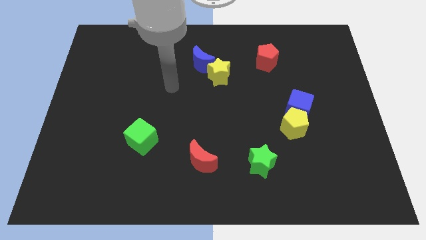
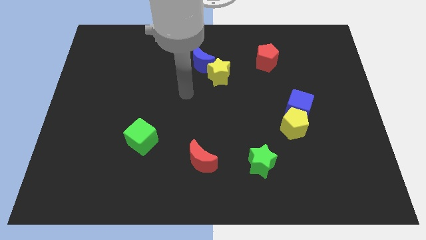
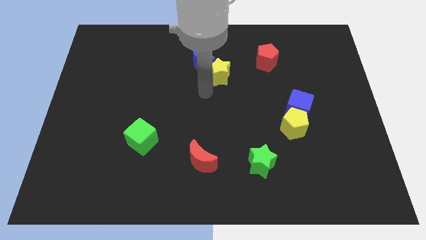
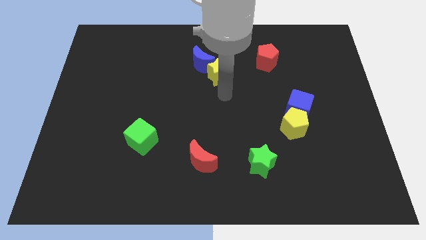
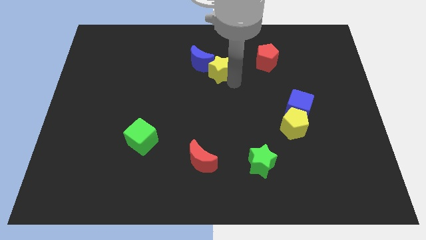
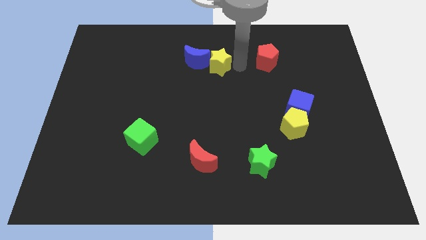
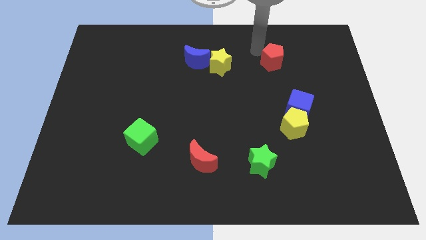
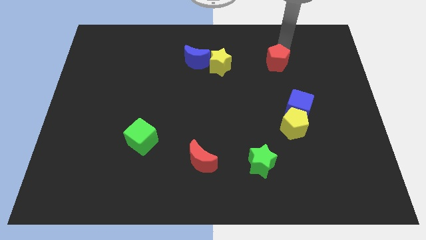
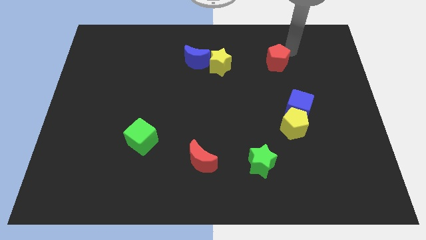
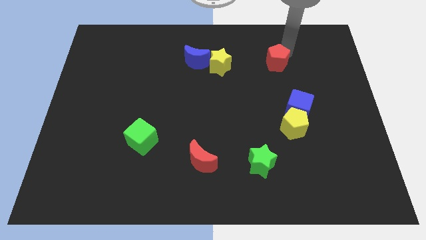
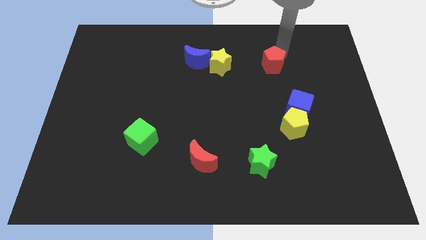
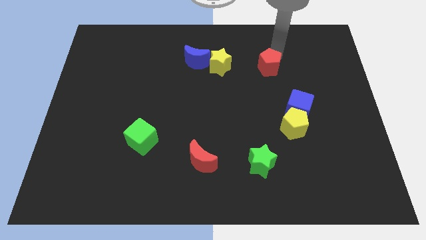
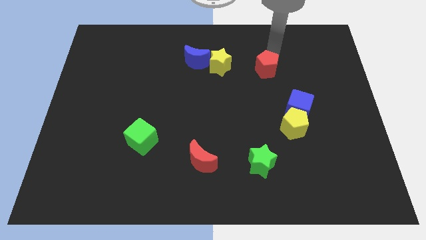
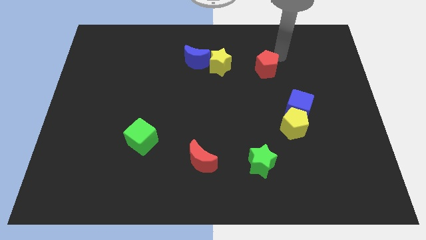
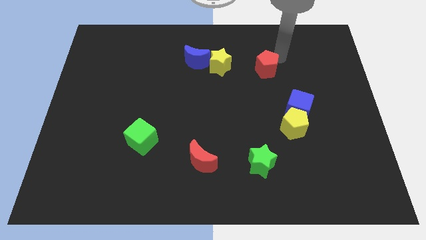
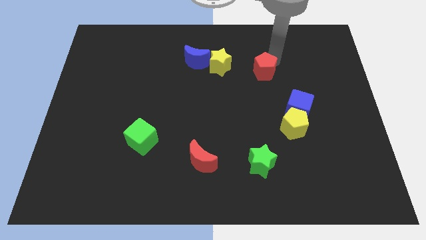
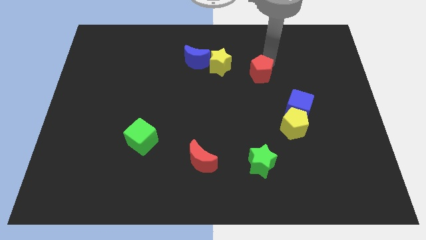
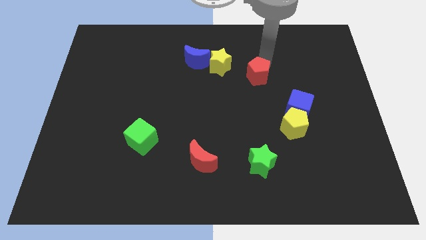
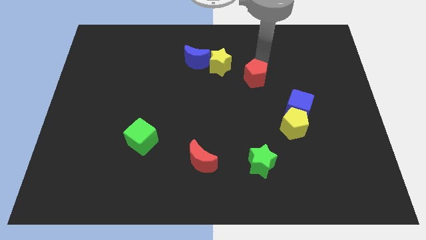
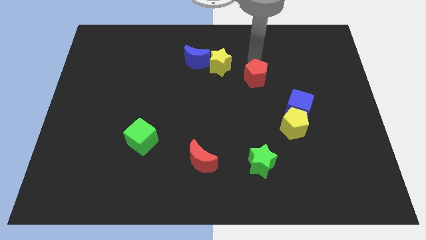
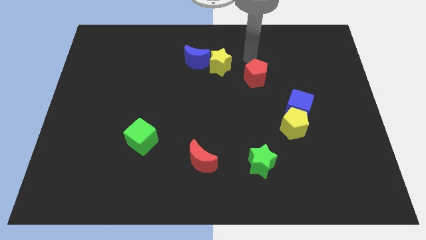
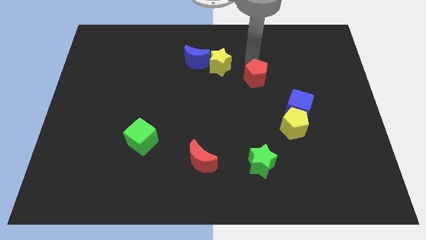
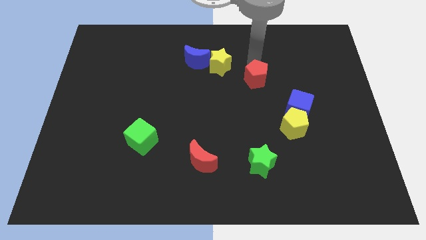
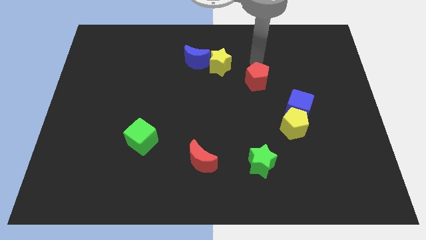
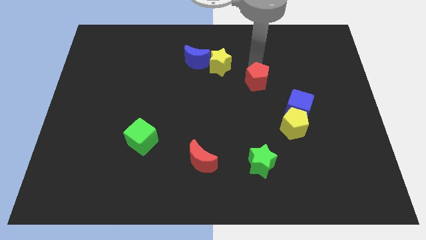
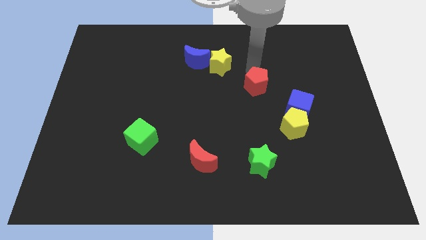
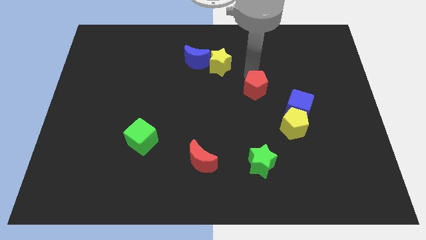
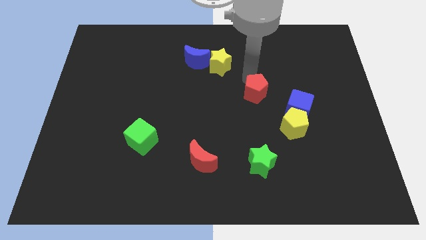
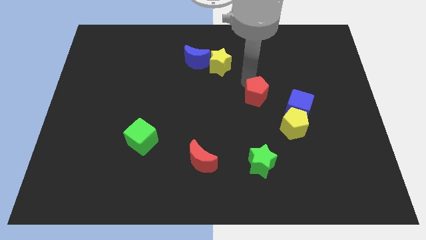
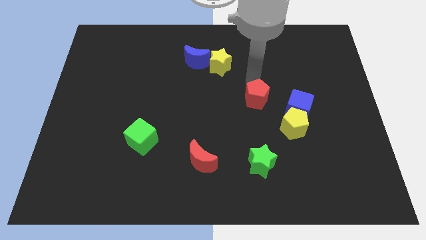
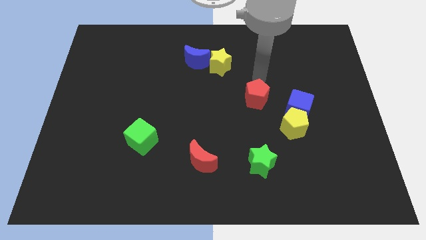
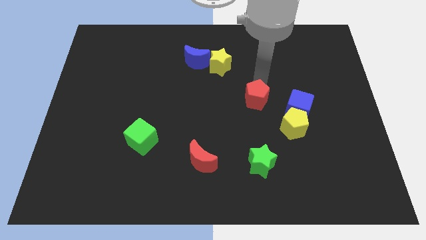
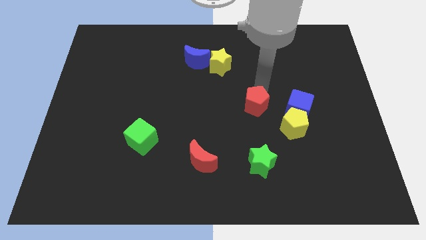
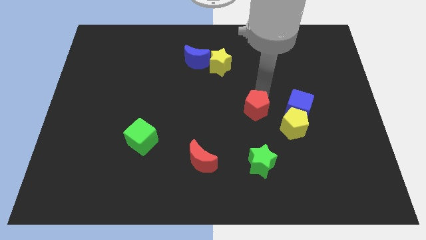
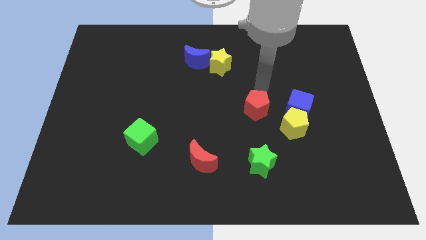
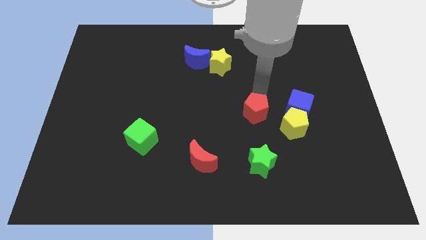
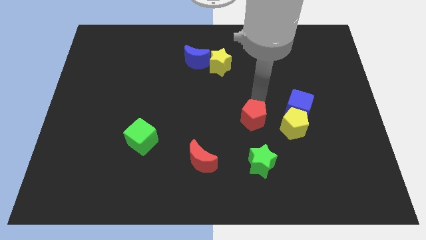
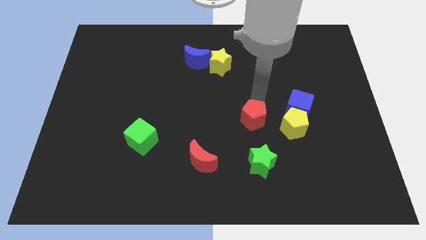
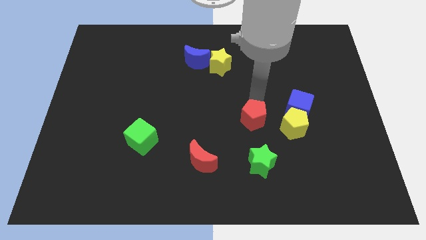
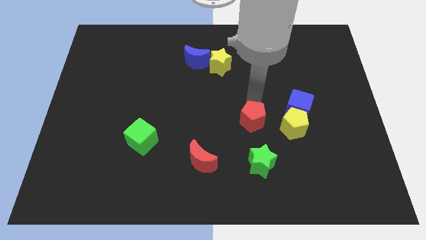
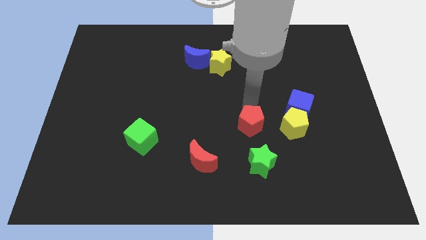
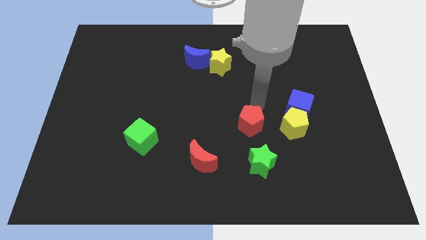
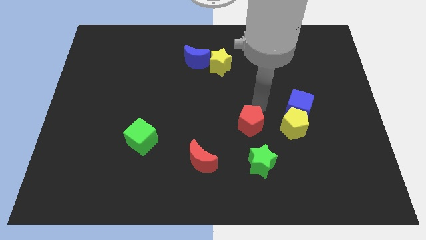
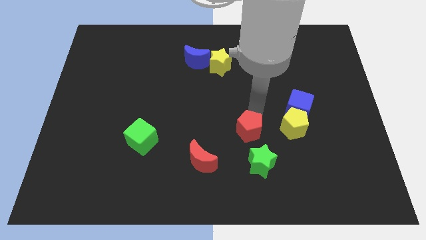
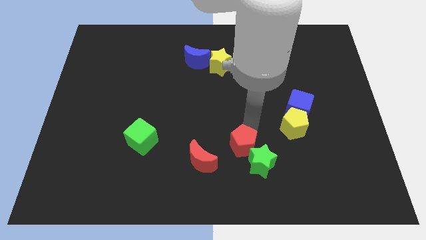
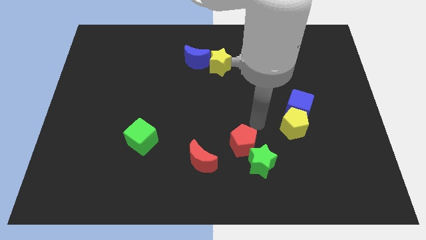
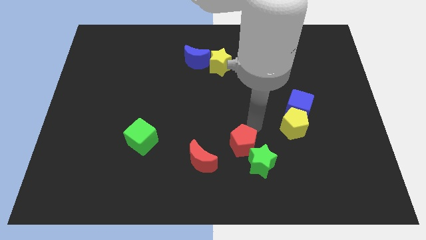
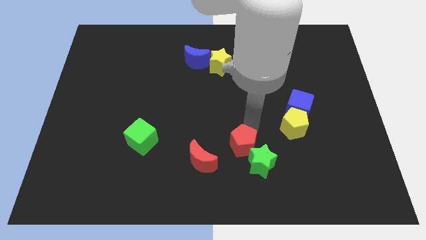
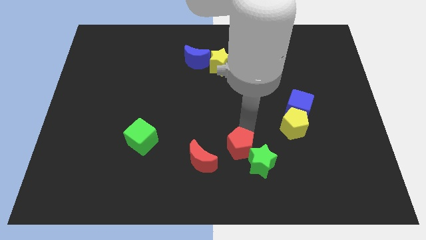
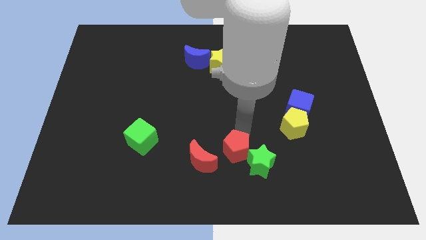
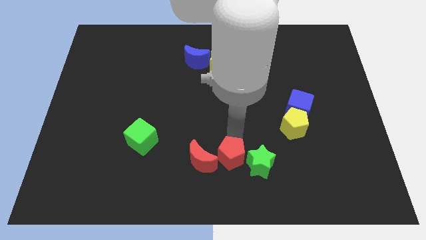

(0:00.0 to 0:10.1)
move the red pentagon to the bottom

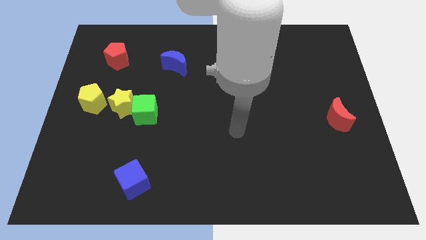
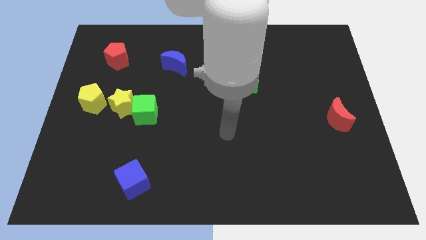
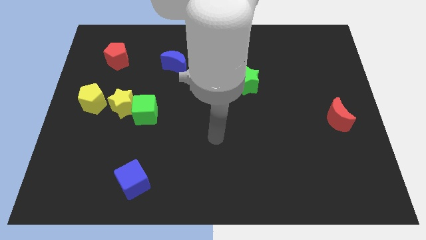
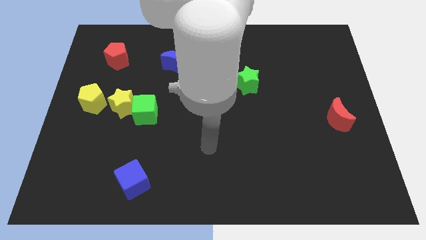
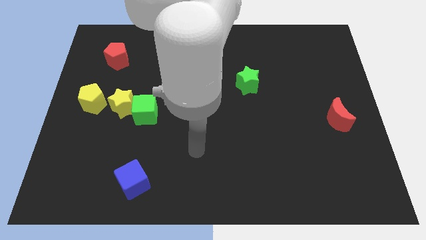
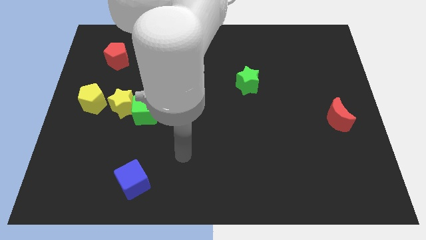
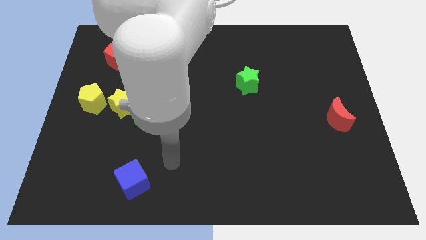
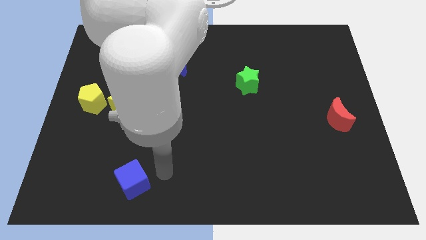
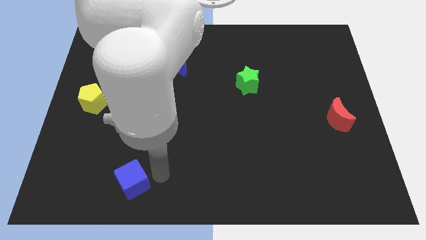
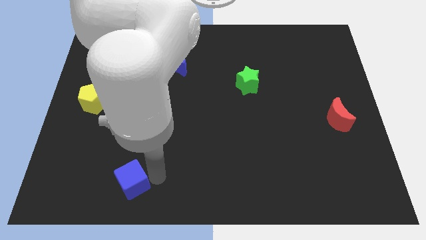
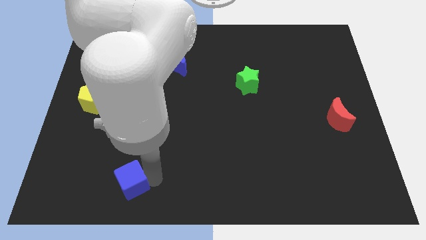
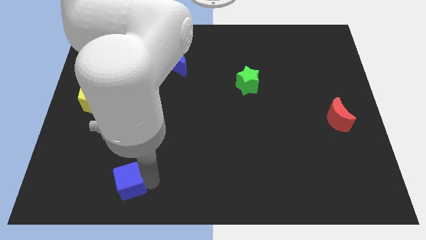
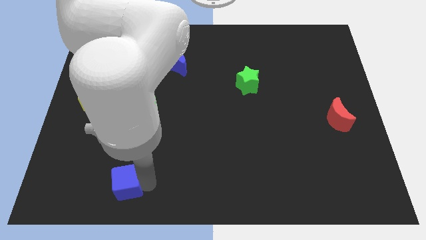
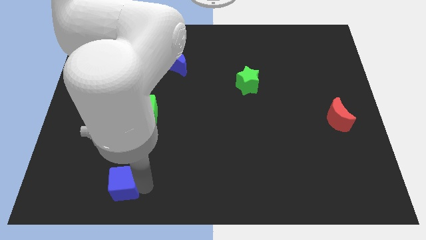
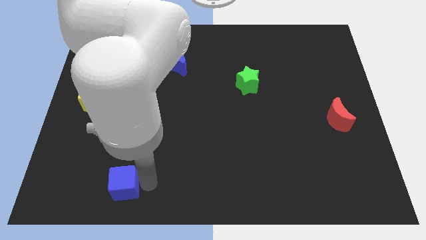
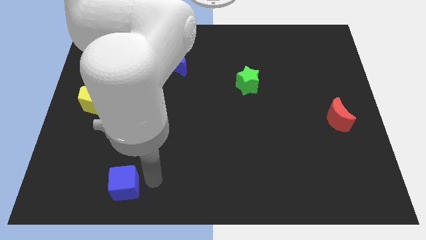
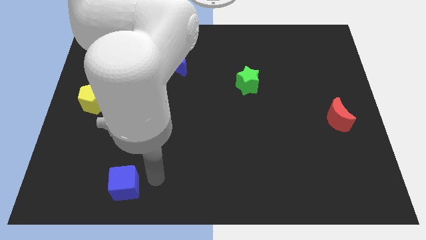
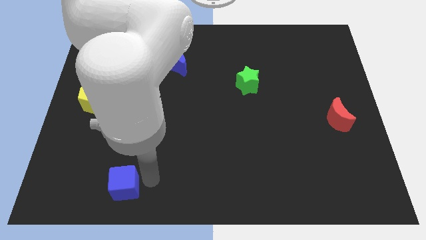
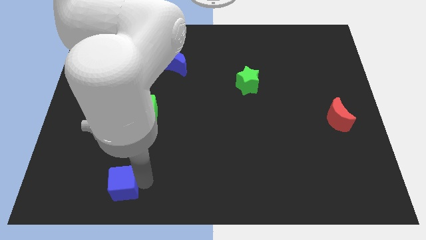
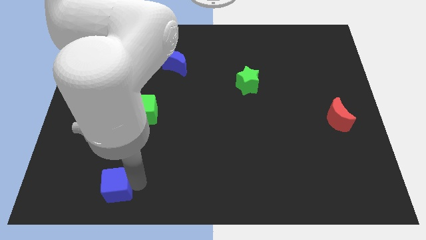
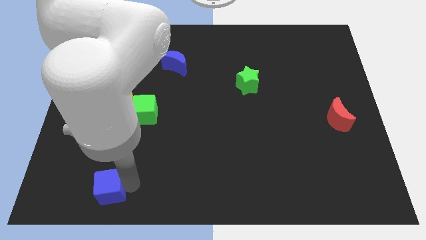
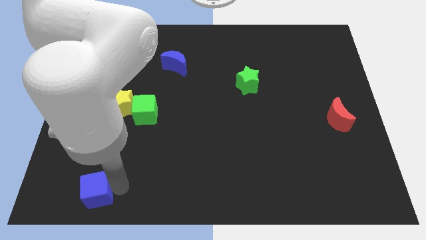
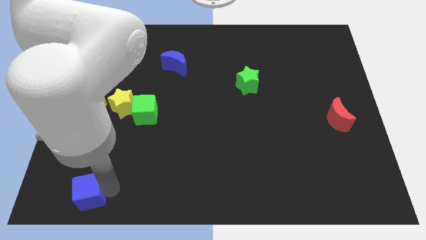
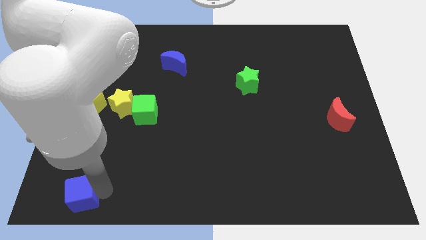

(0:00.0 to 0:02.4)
push the blue cube to the lower left corner

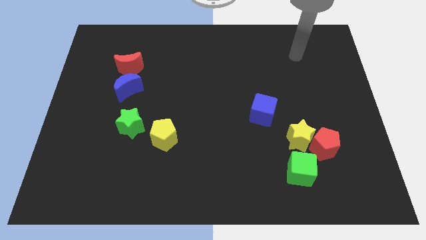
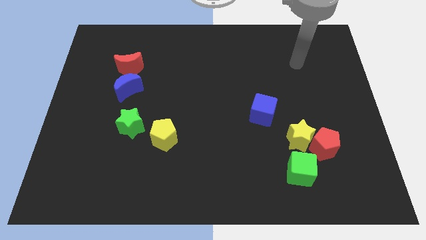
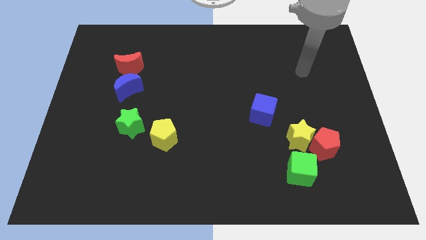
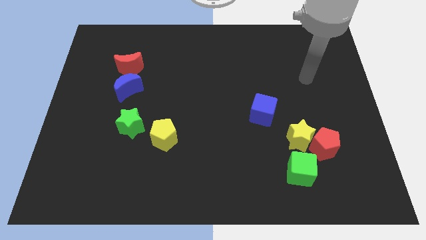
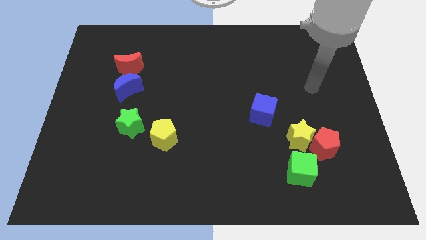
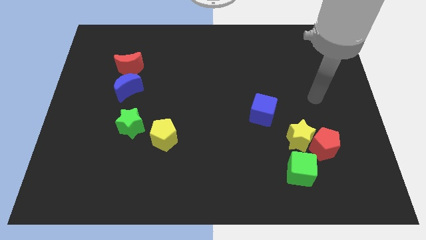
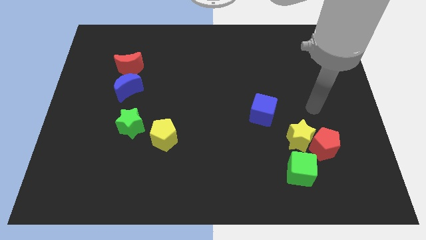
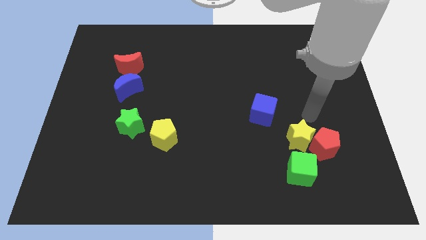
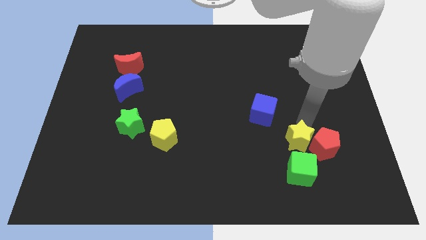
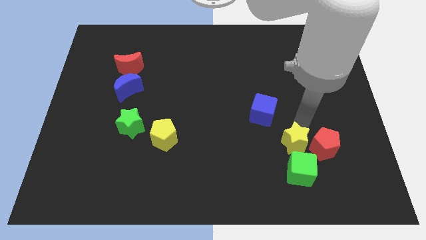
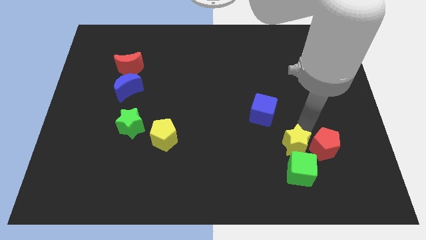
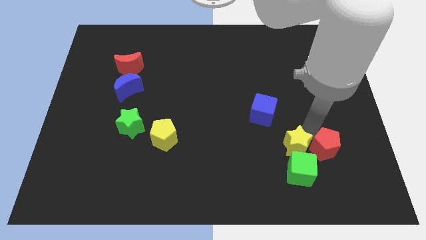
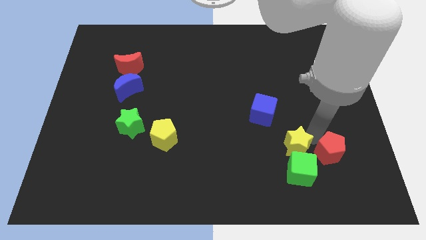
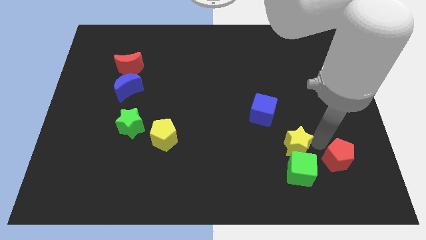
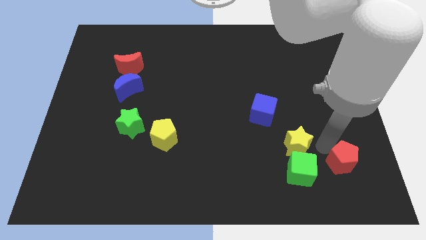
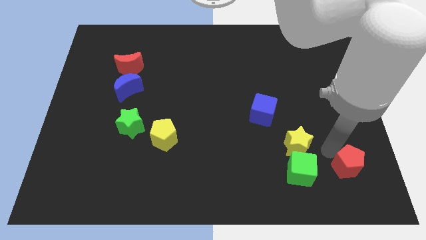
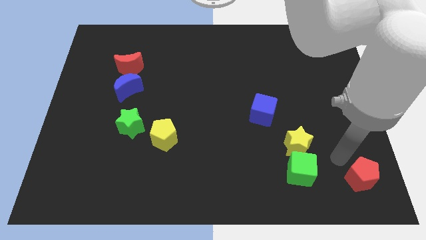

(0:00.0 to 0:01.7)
push the red pentagon to the bottom right corner
